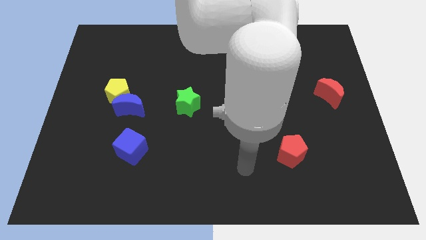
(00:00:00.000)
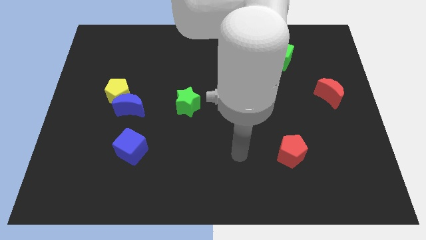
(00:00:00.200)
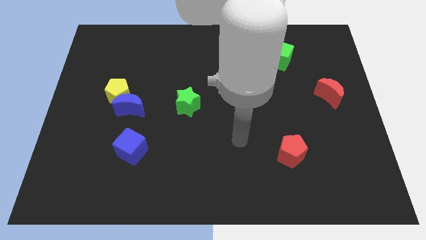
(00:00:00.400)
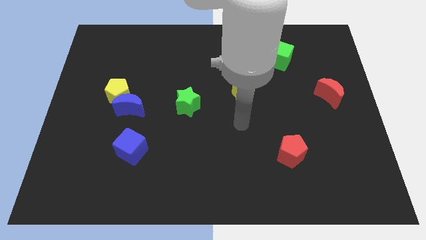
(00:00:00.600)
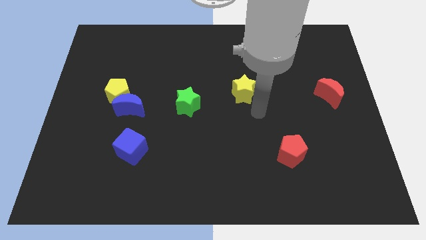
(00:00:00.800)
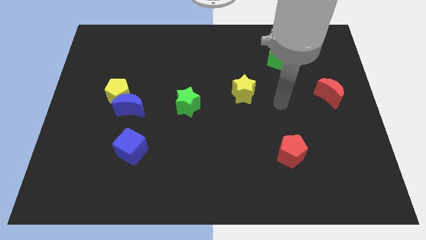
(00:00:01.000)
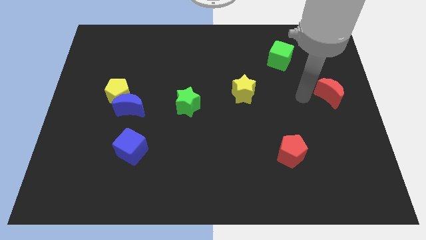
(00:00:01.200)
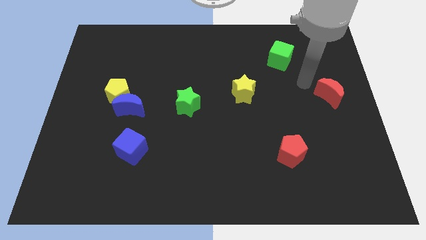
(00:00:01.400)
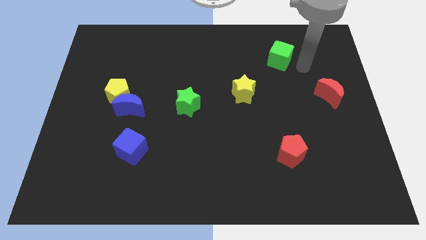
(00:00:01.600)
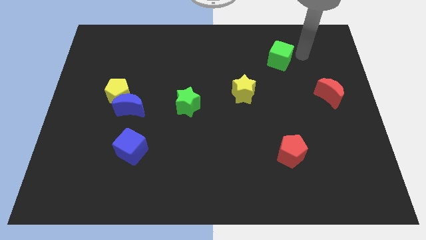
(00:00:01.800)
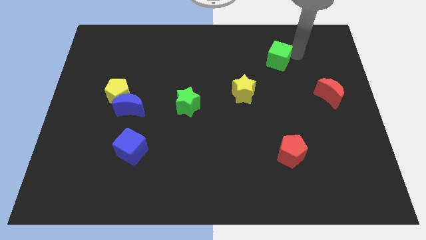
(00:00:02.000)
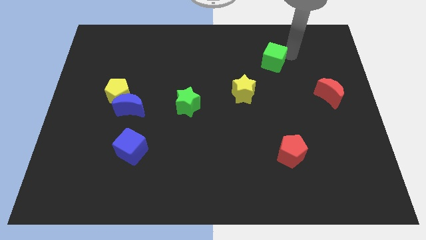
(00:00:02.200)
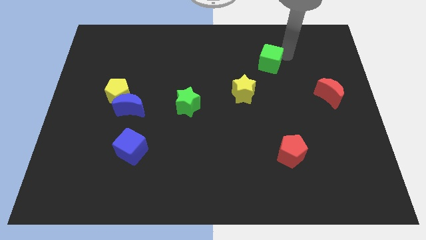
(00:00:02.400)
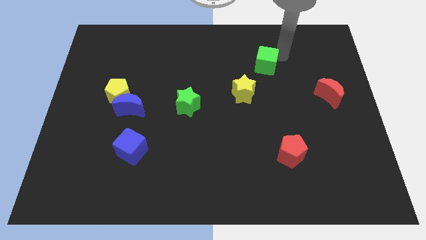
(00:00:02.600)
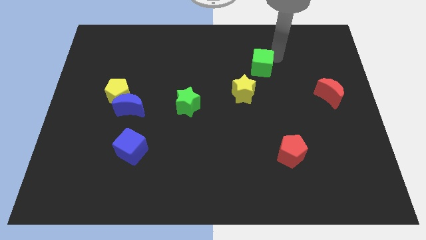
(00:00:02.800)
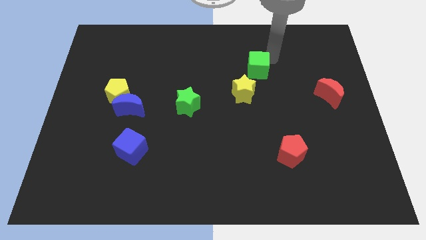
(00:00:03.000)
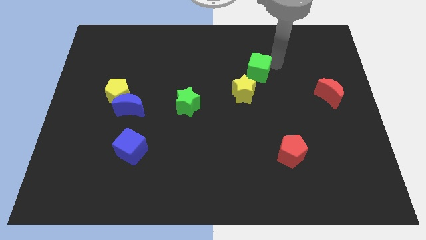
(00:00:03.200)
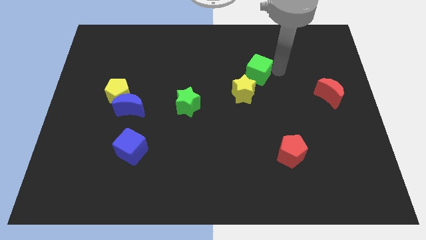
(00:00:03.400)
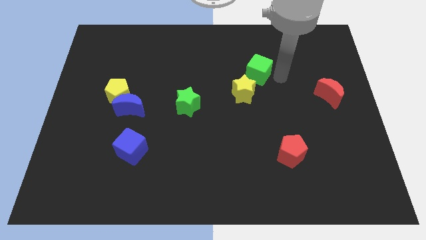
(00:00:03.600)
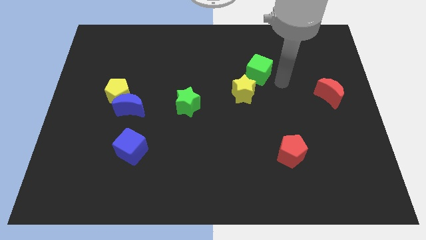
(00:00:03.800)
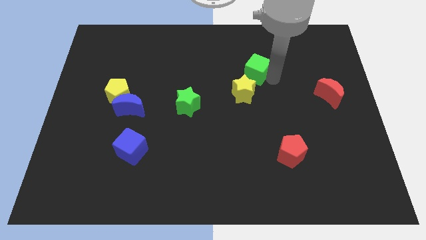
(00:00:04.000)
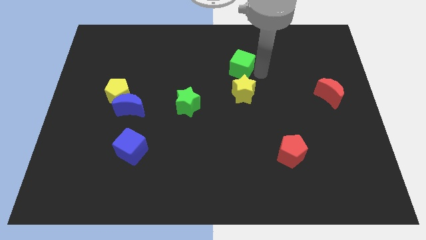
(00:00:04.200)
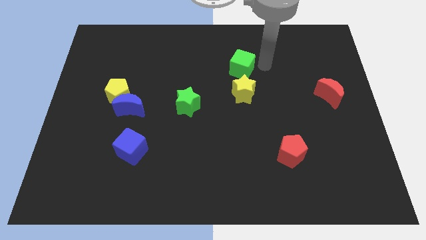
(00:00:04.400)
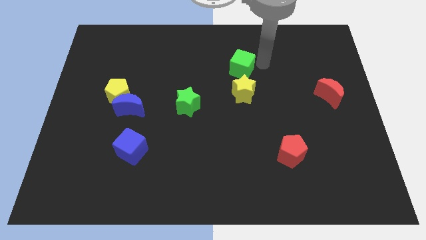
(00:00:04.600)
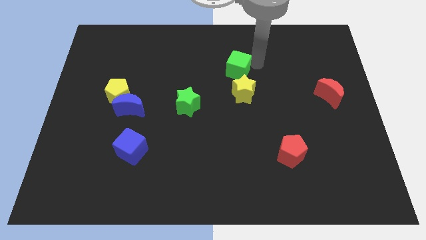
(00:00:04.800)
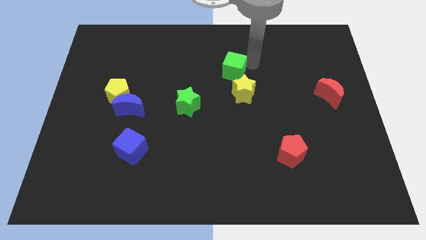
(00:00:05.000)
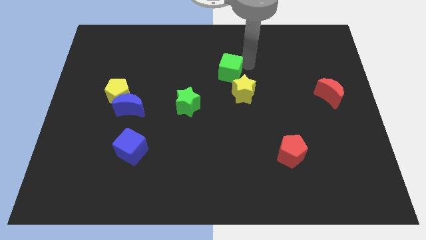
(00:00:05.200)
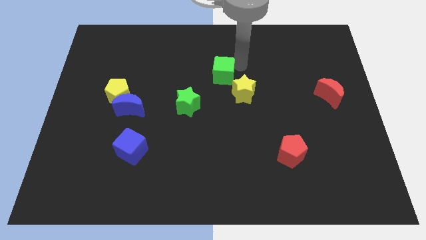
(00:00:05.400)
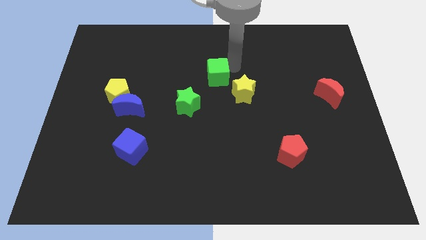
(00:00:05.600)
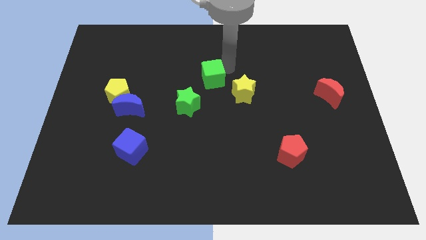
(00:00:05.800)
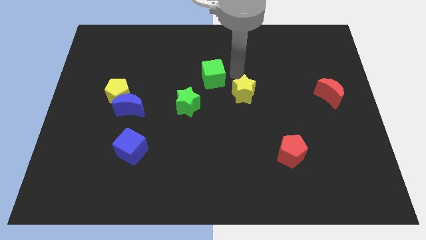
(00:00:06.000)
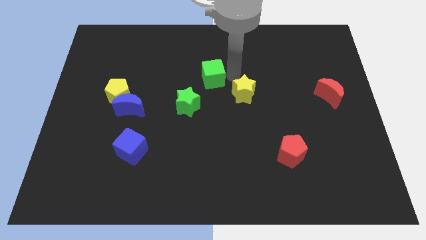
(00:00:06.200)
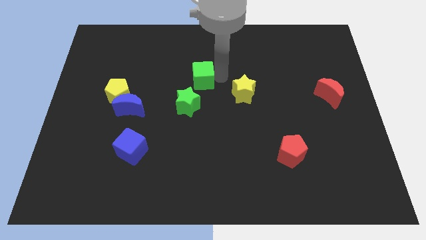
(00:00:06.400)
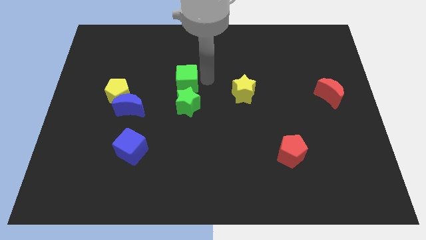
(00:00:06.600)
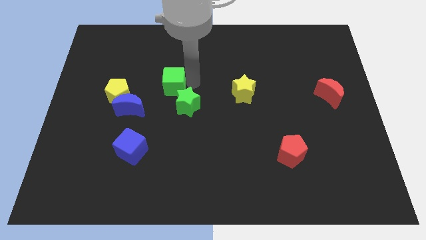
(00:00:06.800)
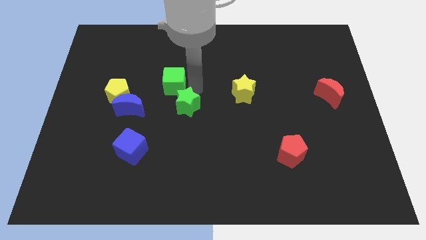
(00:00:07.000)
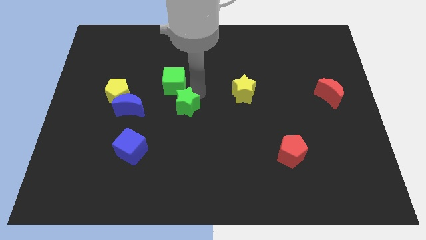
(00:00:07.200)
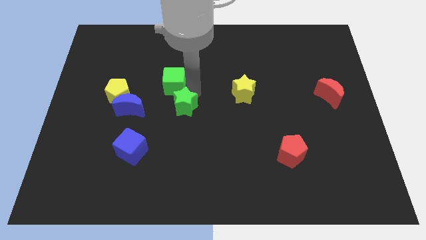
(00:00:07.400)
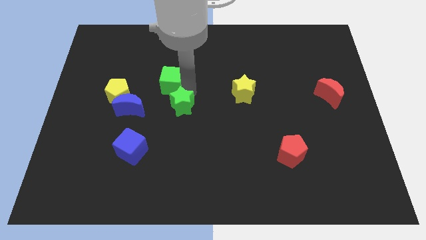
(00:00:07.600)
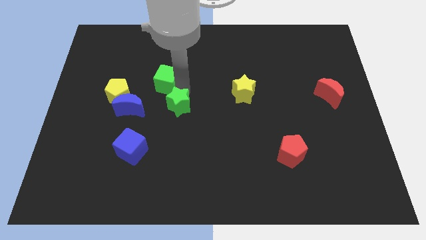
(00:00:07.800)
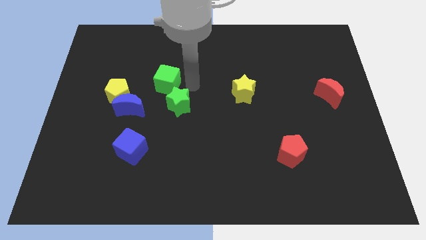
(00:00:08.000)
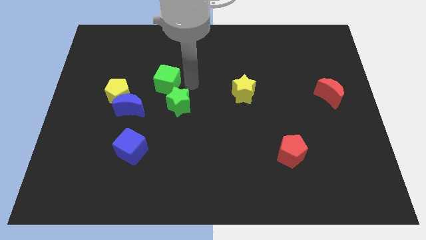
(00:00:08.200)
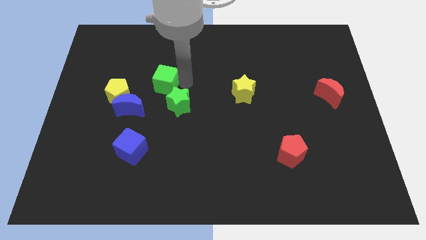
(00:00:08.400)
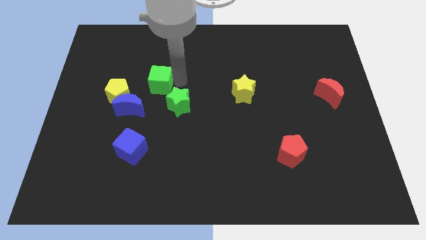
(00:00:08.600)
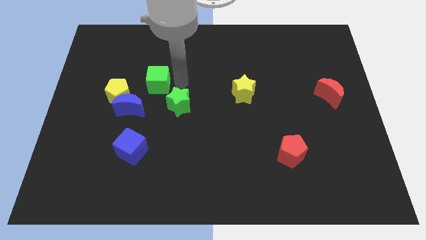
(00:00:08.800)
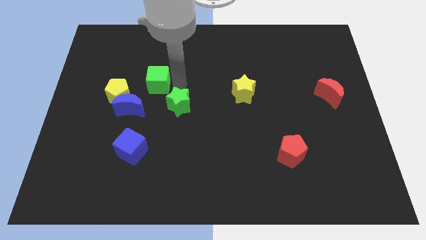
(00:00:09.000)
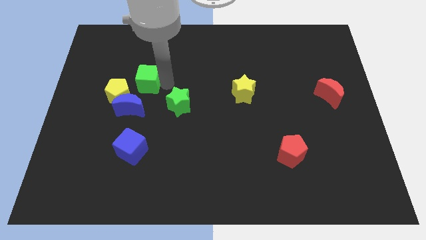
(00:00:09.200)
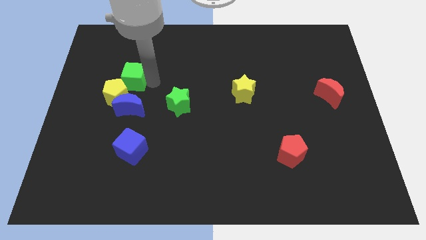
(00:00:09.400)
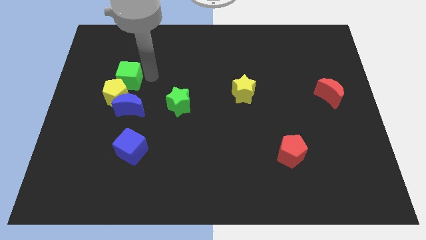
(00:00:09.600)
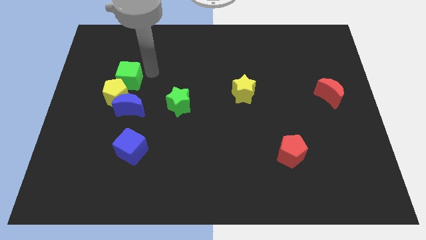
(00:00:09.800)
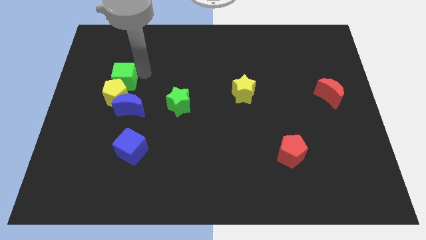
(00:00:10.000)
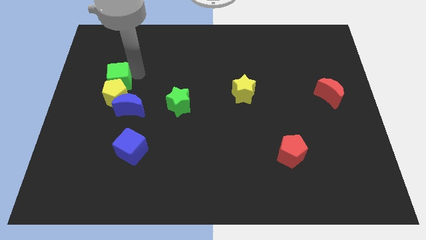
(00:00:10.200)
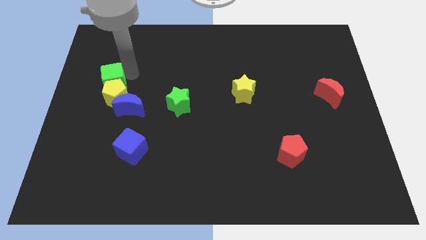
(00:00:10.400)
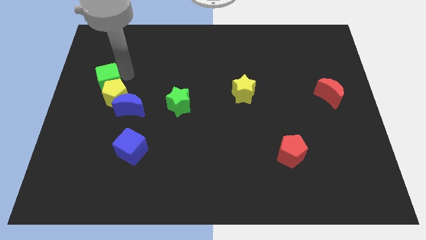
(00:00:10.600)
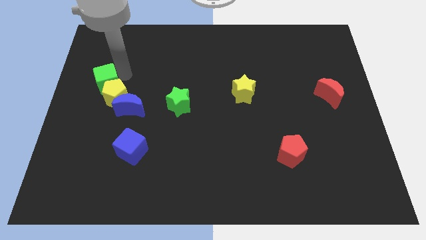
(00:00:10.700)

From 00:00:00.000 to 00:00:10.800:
slide the green cube to the center left

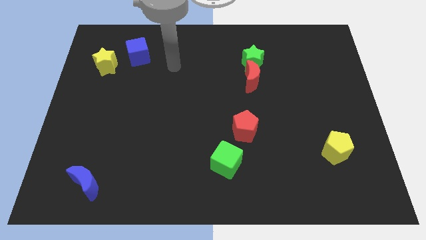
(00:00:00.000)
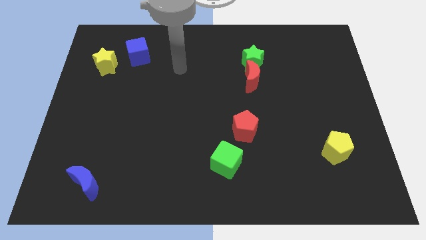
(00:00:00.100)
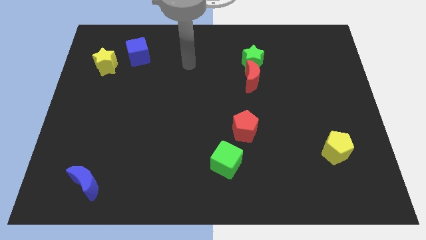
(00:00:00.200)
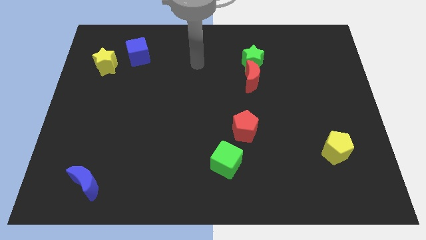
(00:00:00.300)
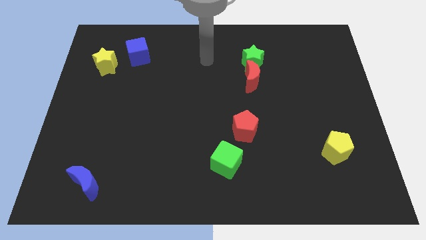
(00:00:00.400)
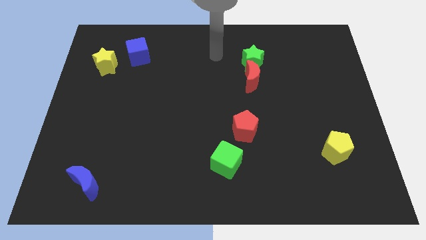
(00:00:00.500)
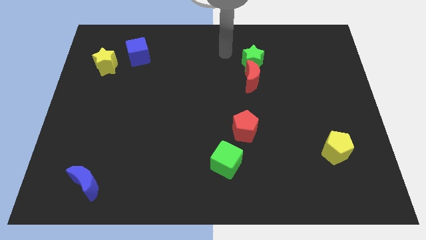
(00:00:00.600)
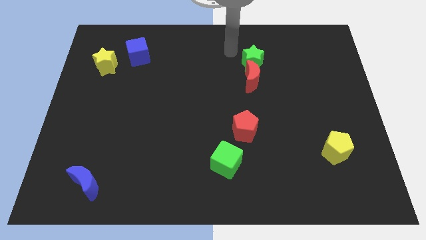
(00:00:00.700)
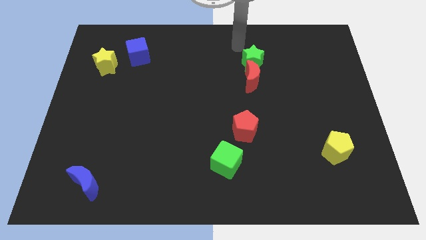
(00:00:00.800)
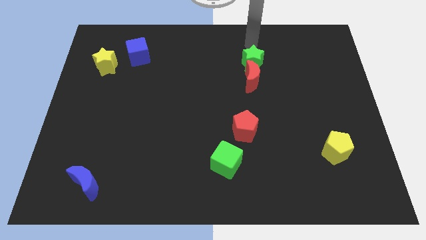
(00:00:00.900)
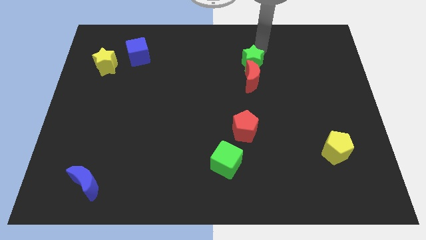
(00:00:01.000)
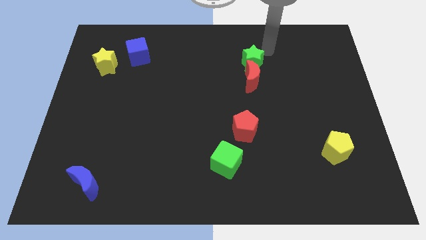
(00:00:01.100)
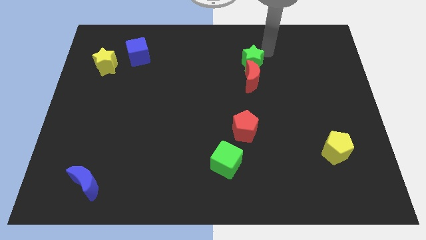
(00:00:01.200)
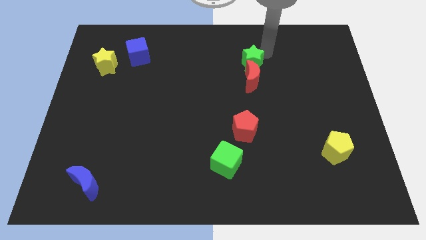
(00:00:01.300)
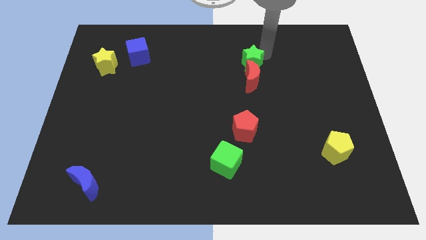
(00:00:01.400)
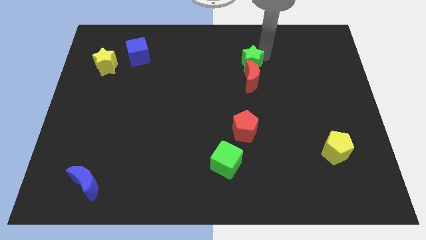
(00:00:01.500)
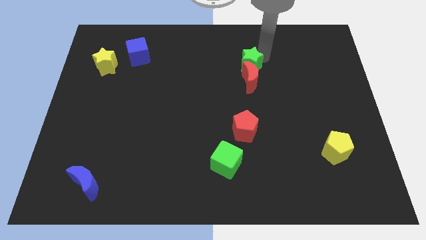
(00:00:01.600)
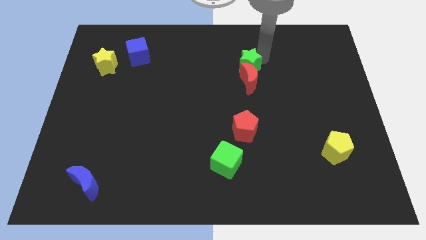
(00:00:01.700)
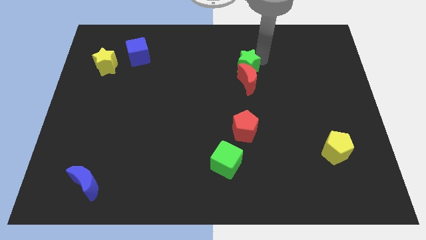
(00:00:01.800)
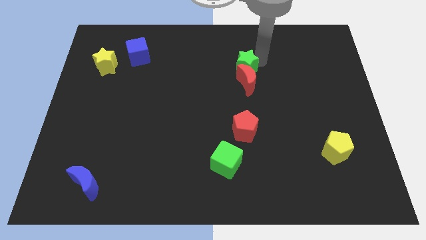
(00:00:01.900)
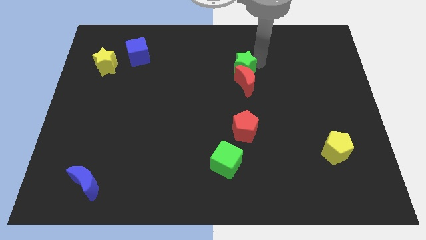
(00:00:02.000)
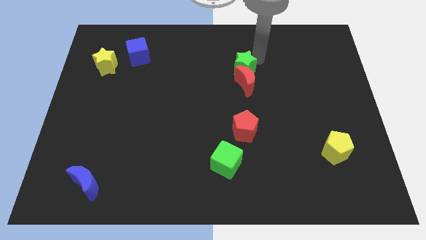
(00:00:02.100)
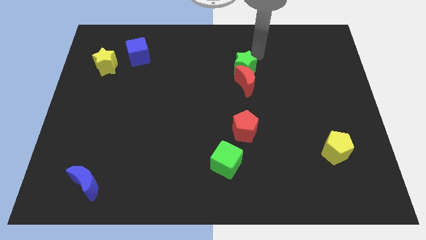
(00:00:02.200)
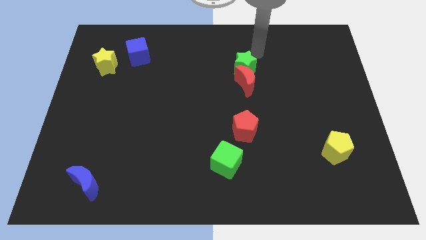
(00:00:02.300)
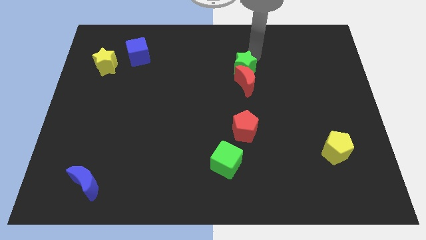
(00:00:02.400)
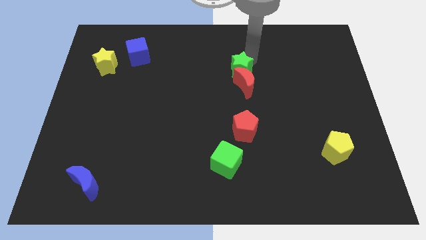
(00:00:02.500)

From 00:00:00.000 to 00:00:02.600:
push the green star to the center
